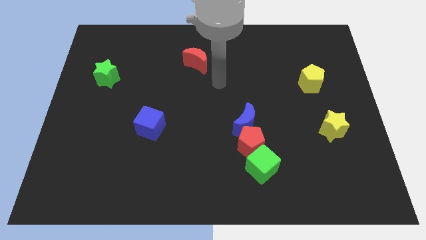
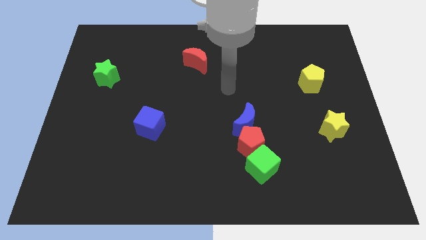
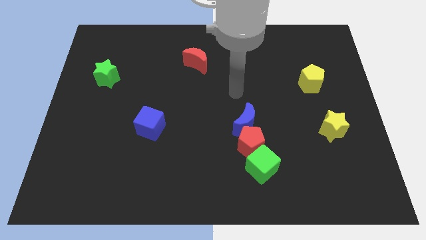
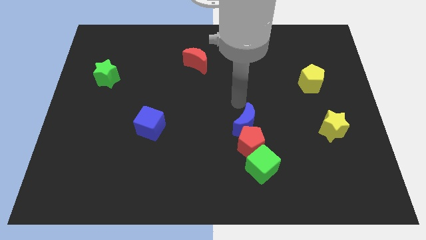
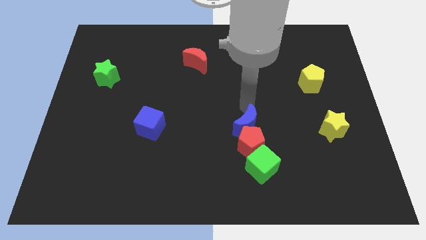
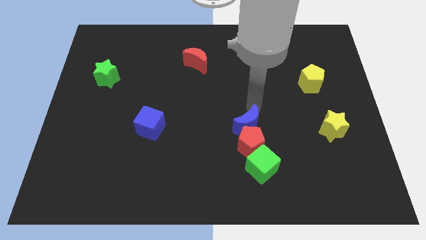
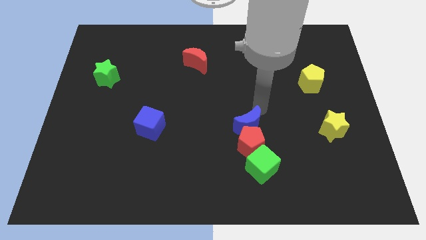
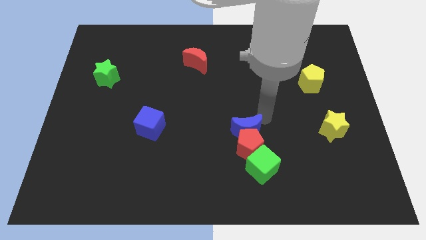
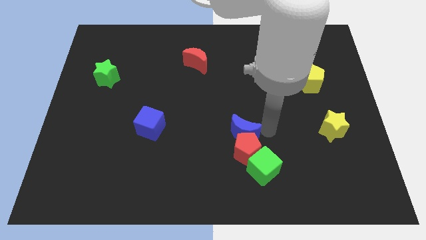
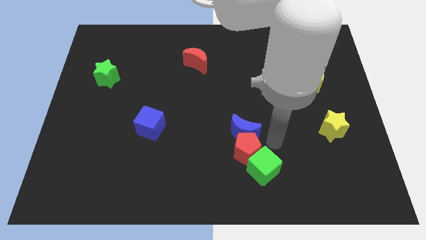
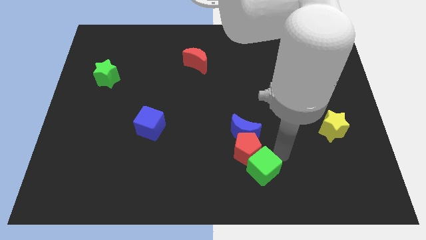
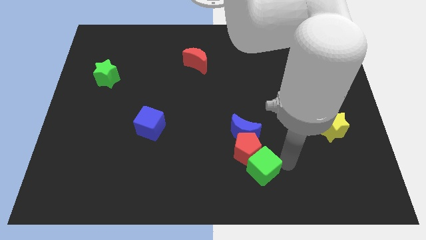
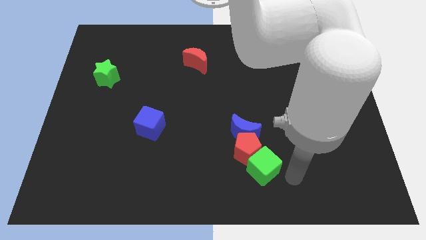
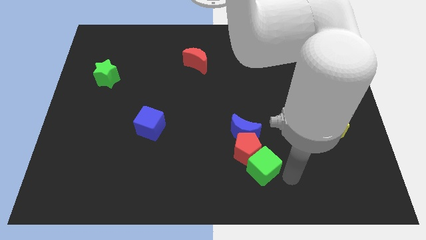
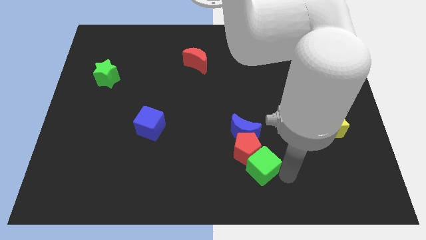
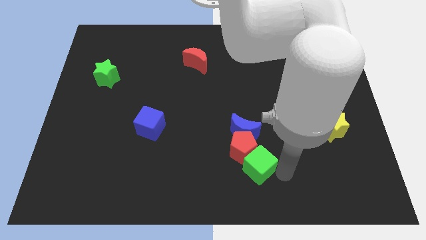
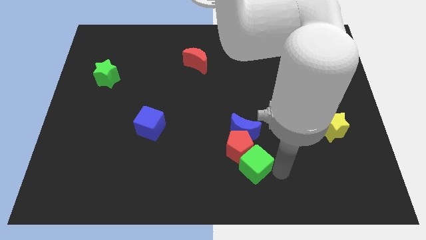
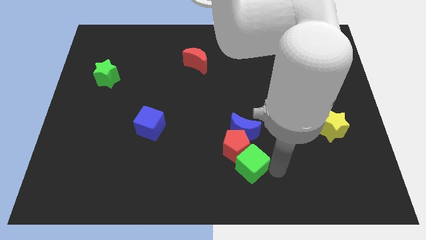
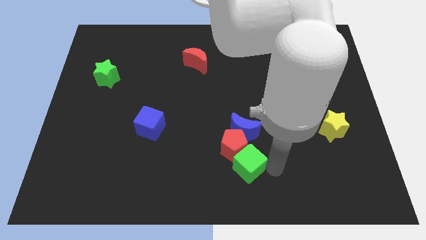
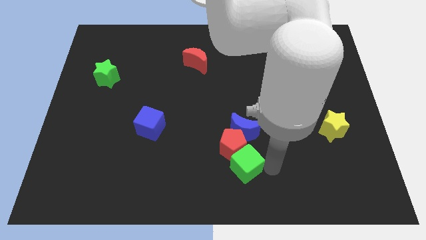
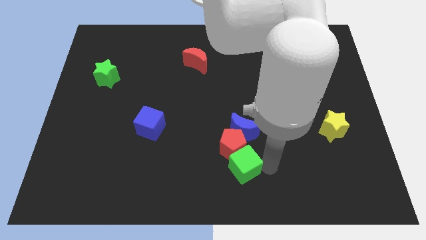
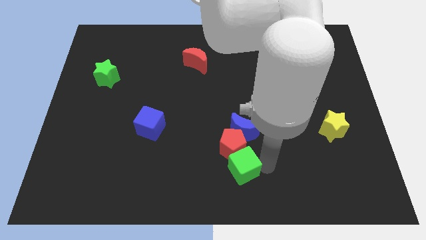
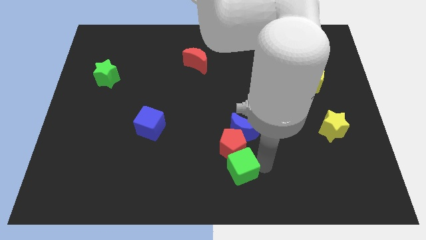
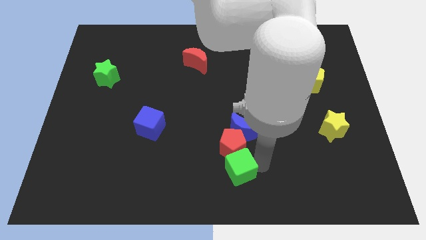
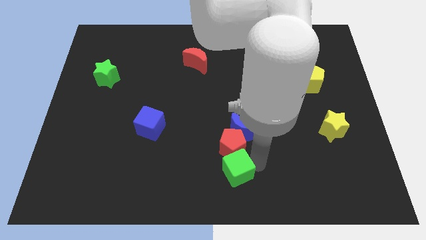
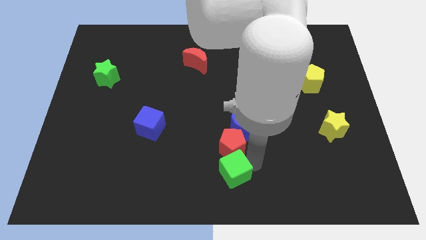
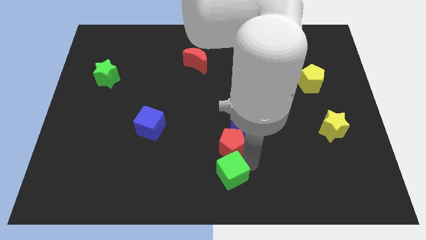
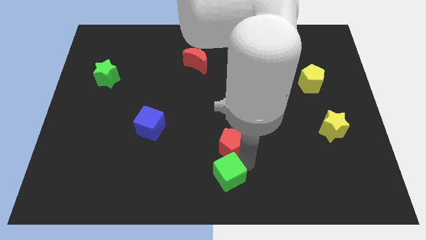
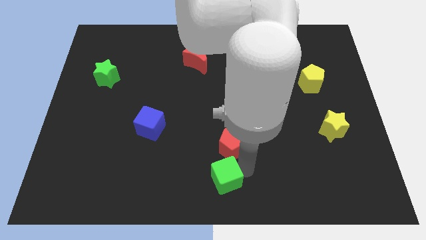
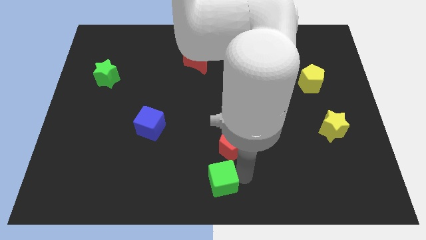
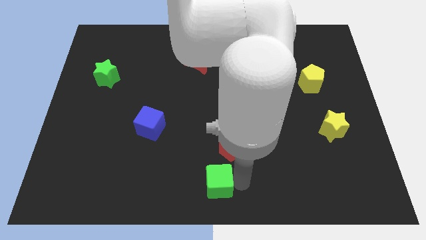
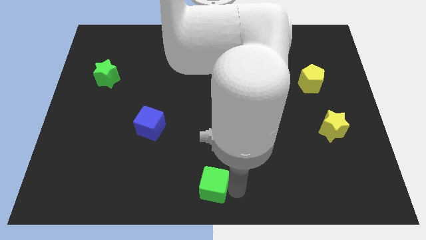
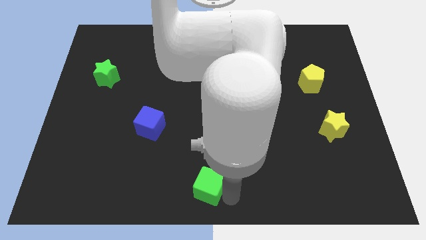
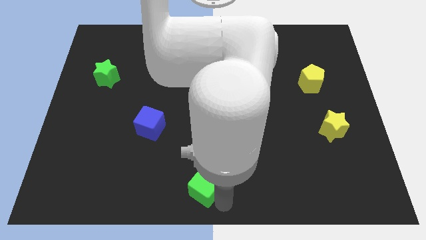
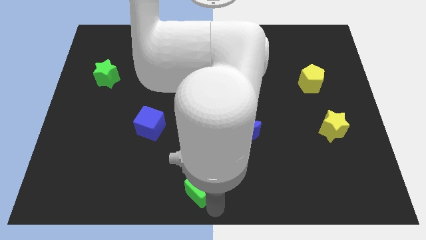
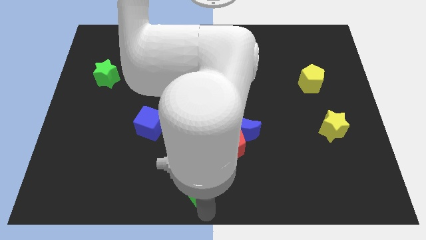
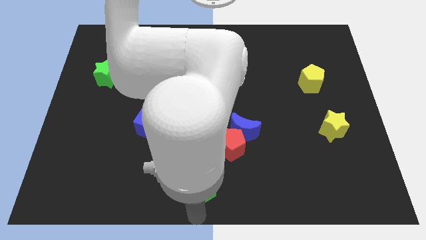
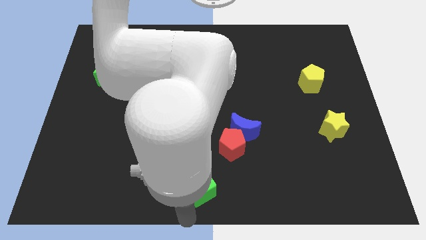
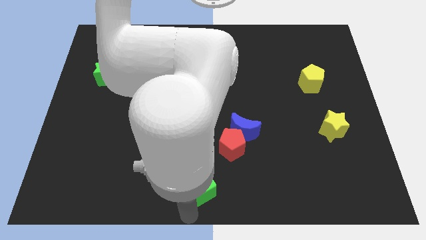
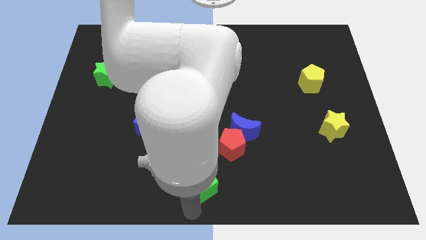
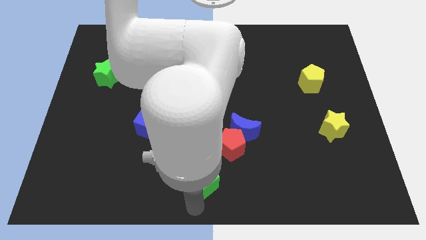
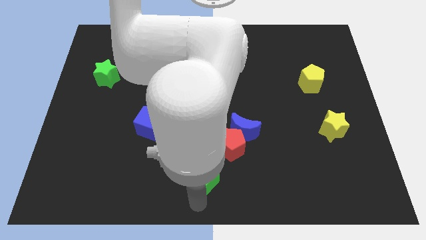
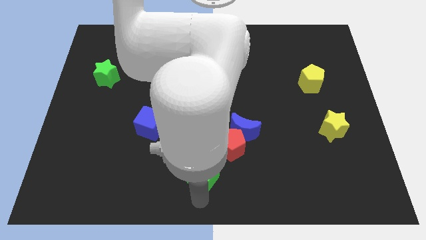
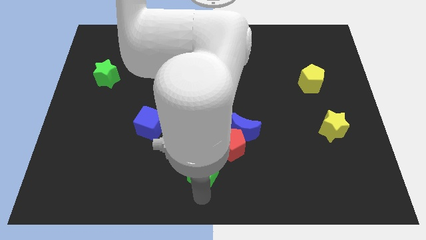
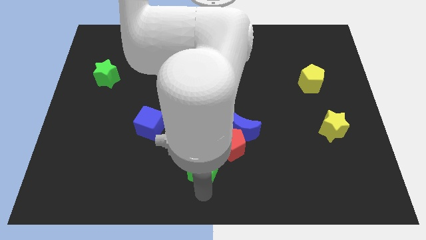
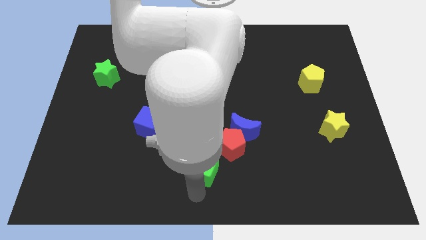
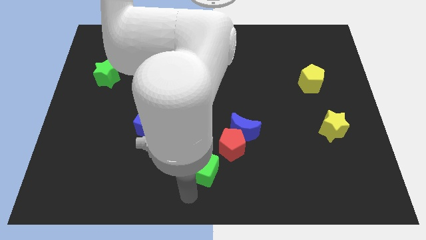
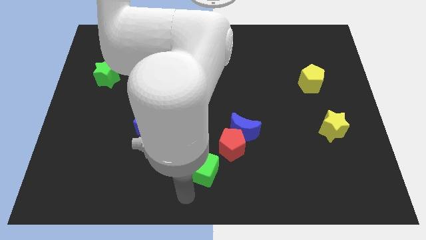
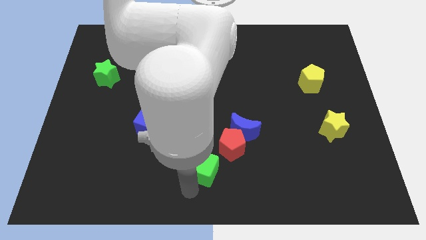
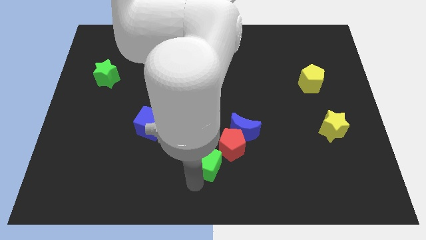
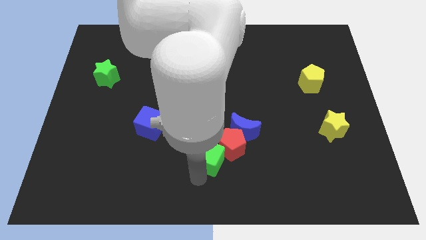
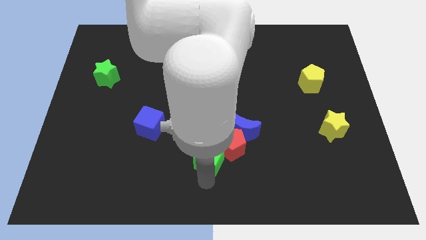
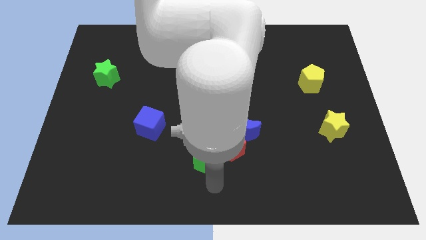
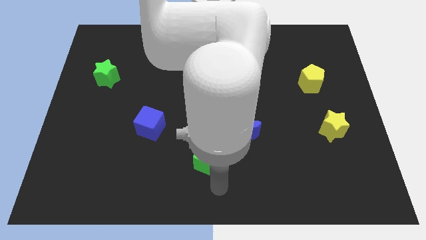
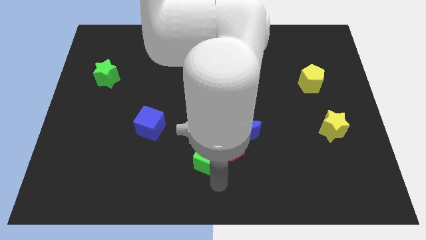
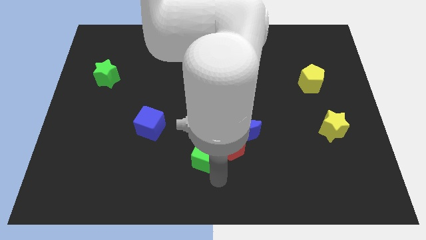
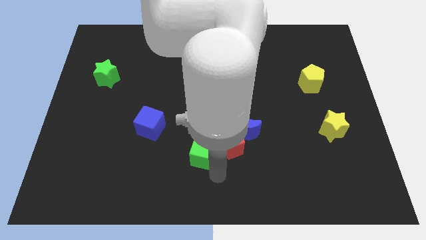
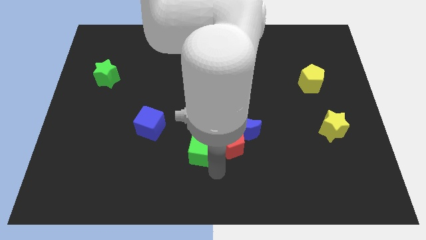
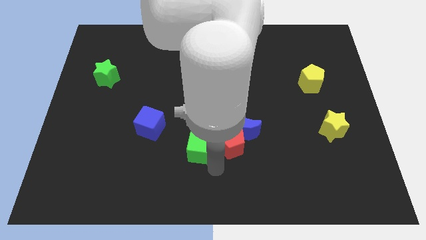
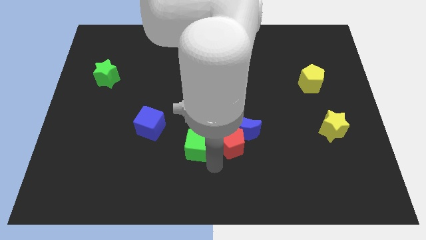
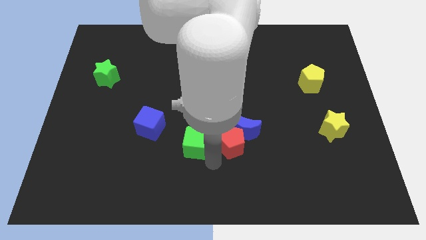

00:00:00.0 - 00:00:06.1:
move the green cube to the right of the blue cube

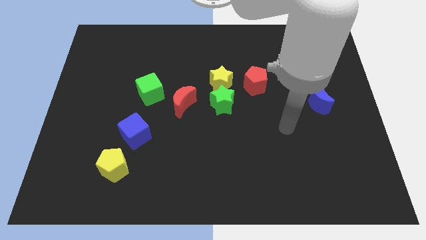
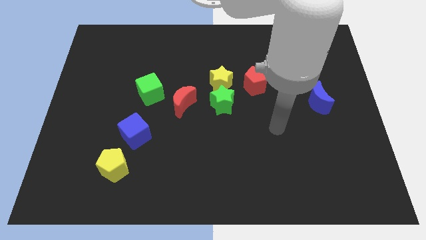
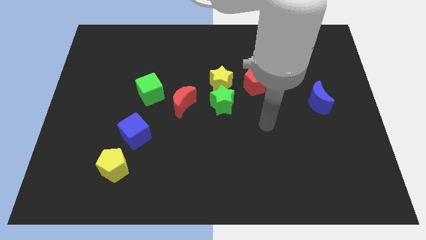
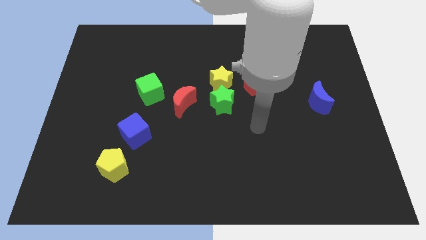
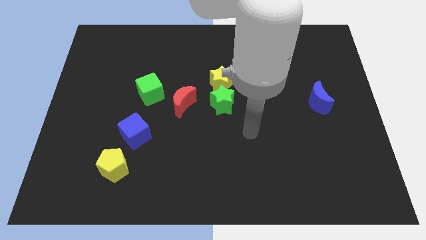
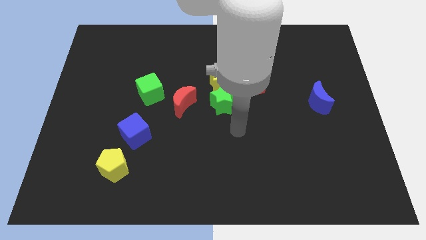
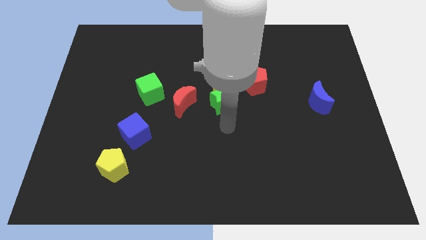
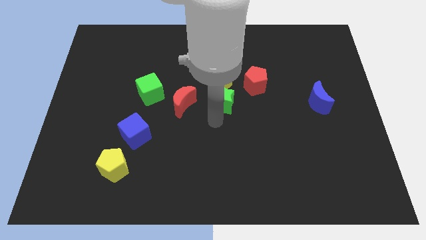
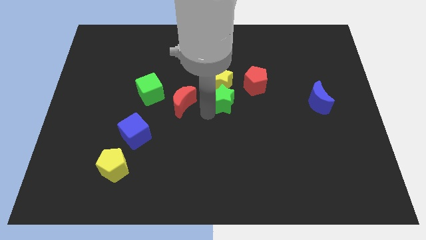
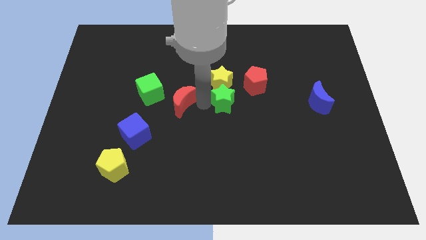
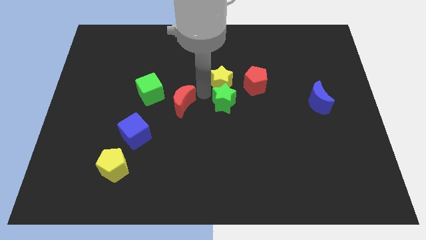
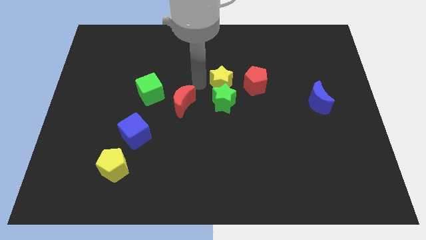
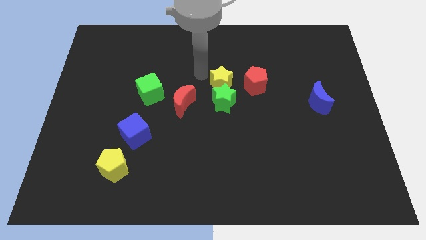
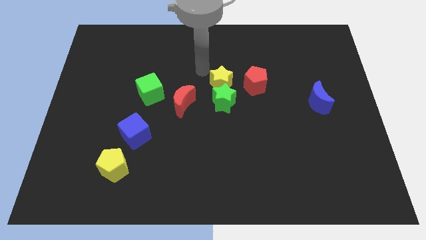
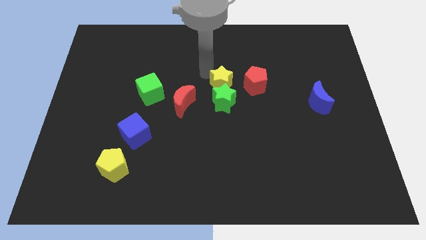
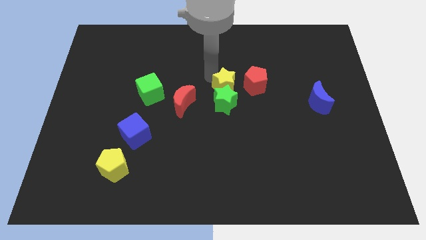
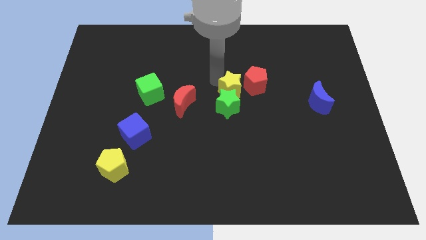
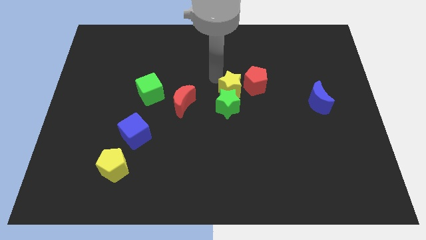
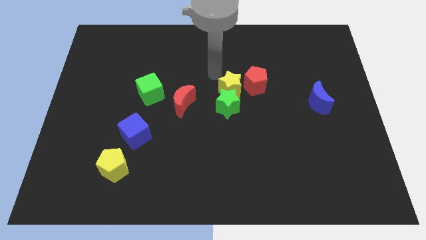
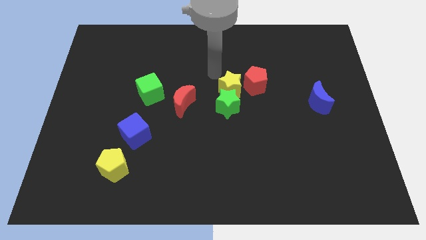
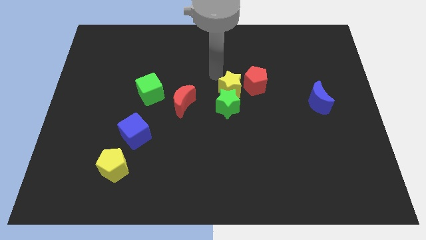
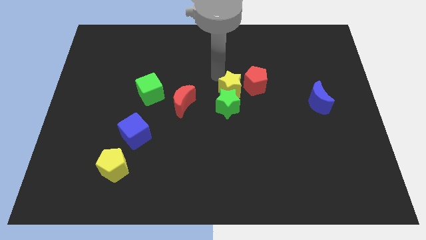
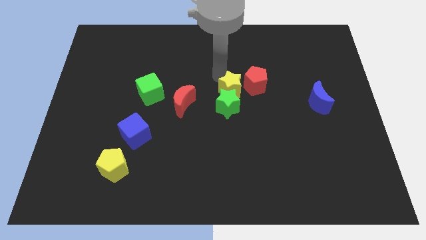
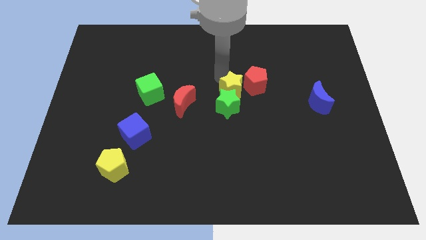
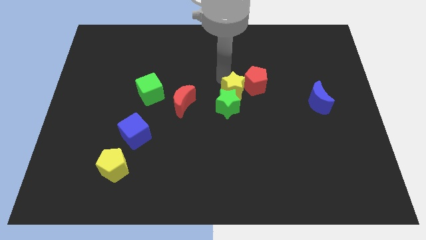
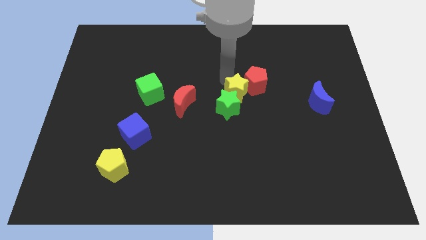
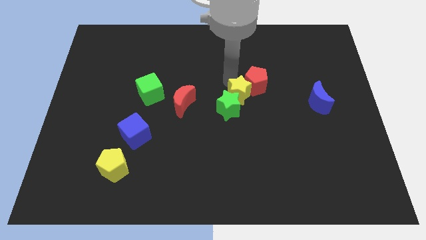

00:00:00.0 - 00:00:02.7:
move the yellow star to the bottom side of the red pentagon
